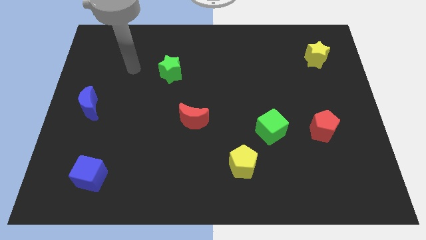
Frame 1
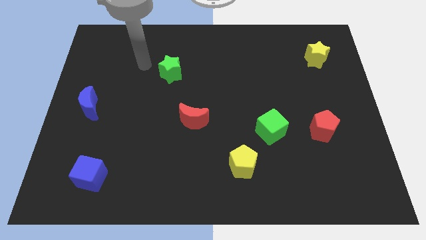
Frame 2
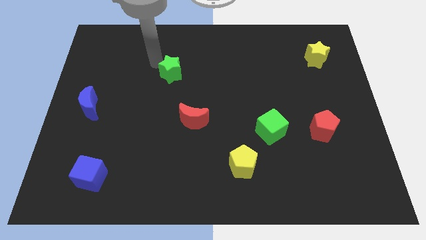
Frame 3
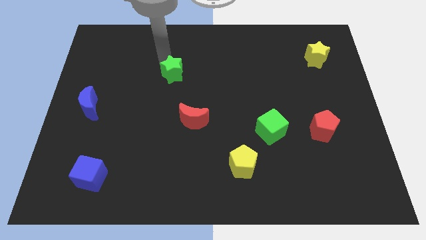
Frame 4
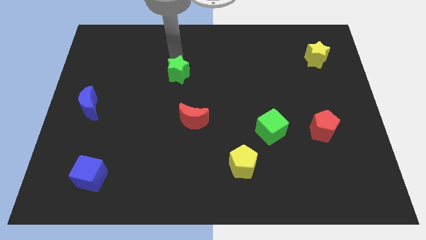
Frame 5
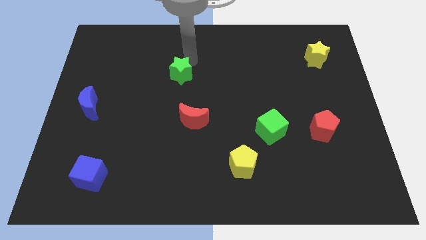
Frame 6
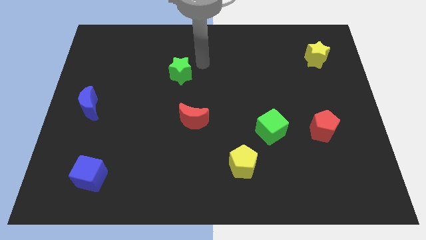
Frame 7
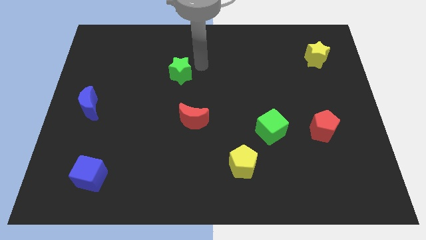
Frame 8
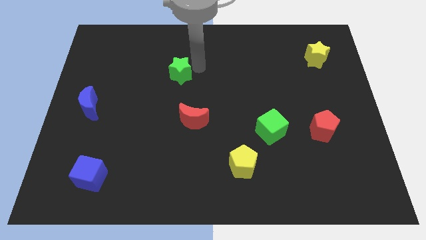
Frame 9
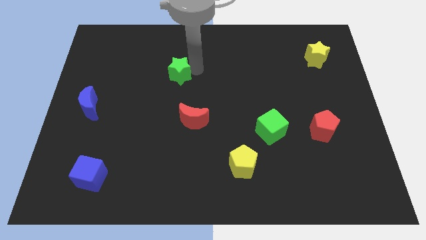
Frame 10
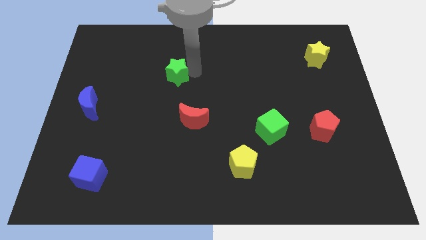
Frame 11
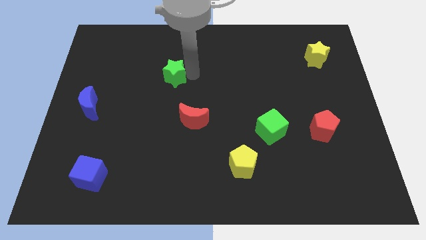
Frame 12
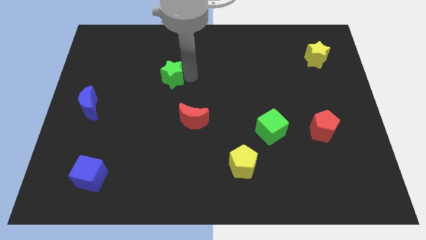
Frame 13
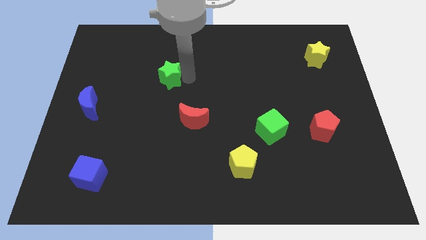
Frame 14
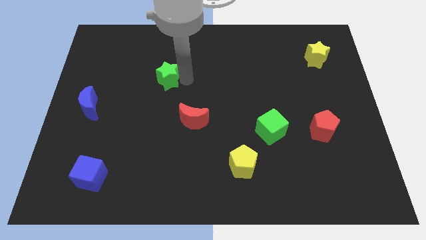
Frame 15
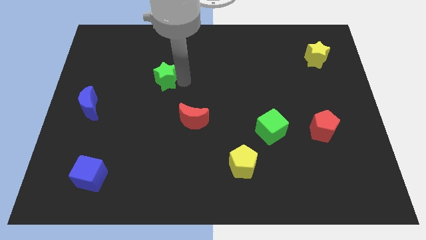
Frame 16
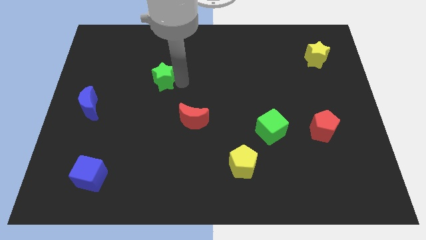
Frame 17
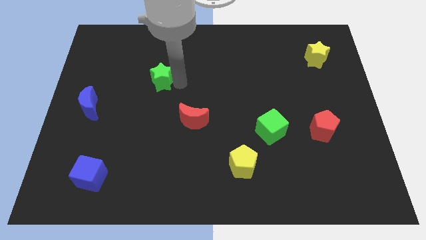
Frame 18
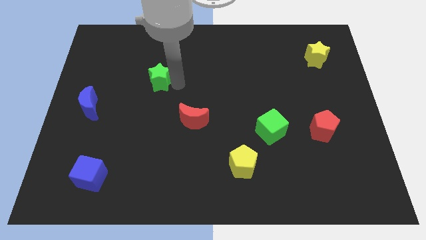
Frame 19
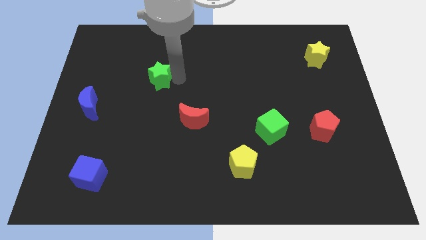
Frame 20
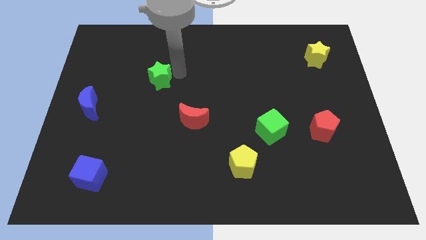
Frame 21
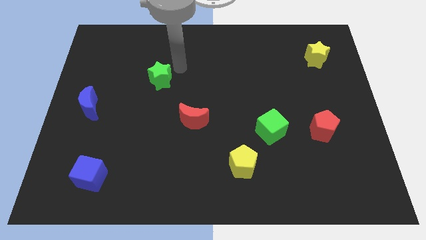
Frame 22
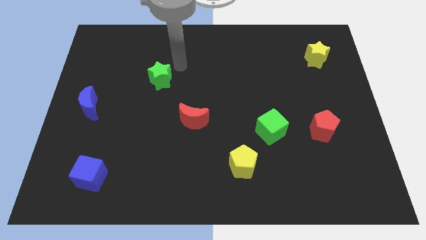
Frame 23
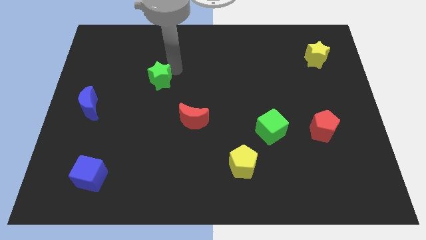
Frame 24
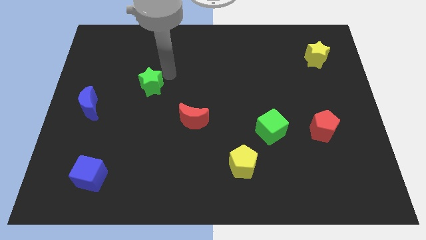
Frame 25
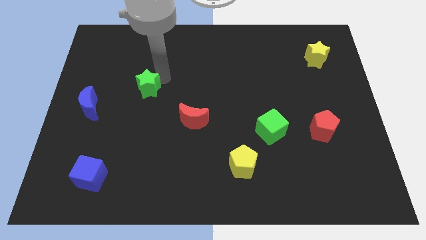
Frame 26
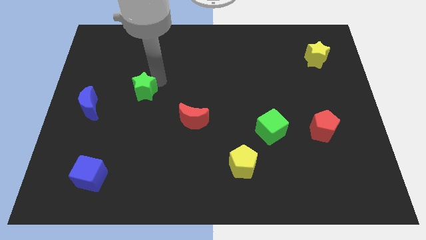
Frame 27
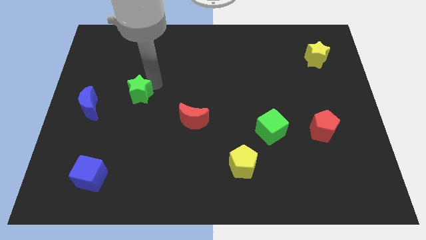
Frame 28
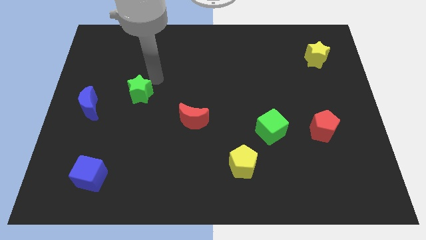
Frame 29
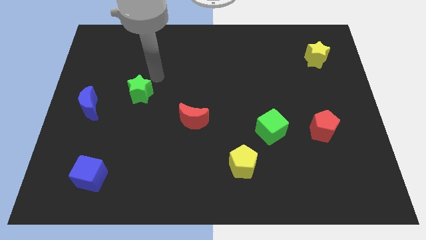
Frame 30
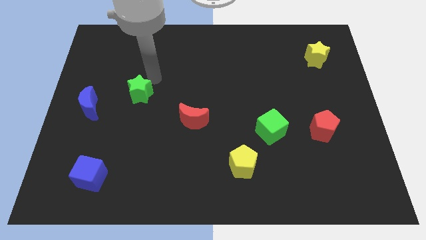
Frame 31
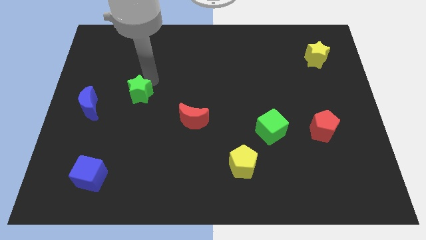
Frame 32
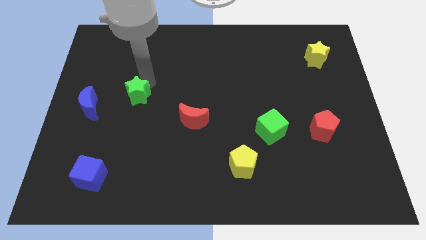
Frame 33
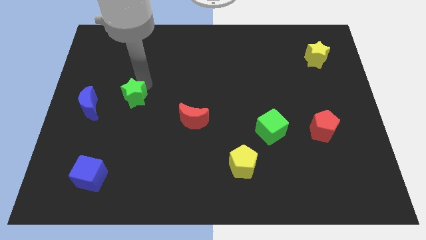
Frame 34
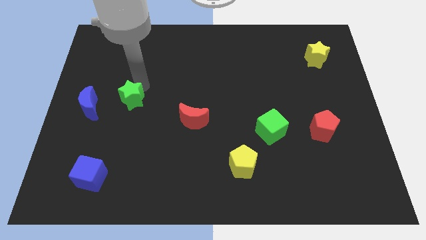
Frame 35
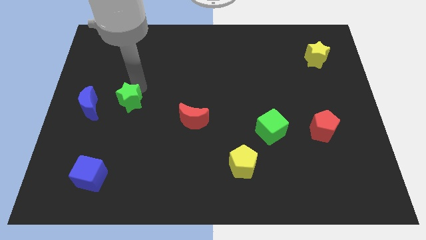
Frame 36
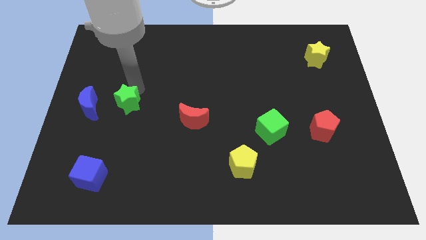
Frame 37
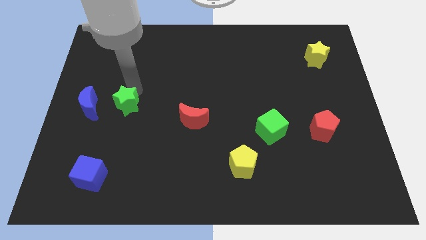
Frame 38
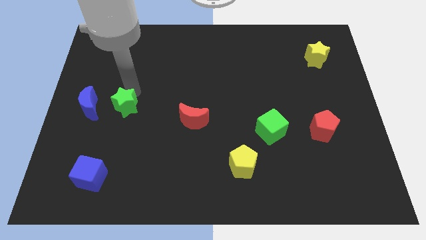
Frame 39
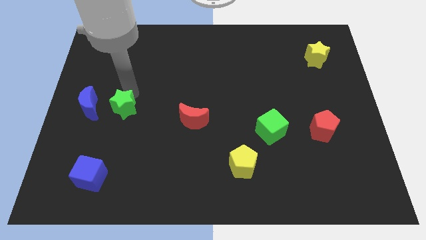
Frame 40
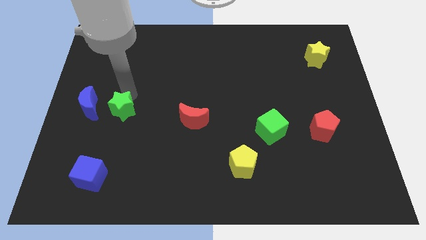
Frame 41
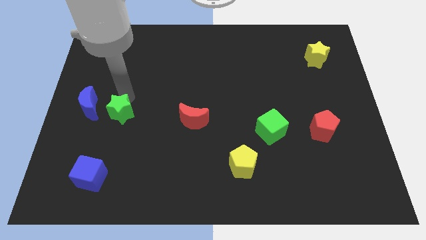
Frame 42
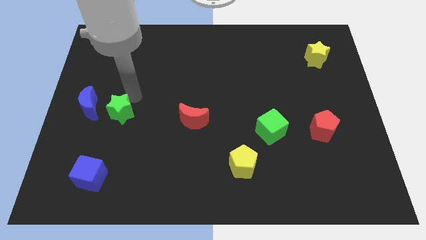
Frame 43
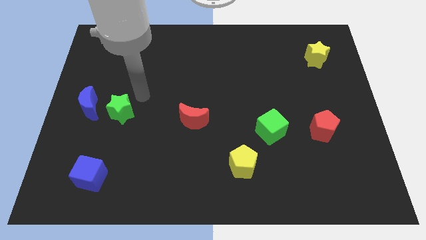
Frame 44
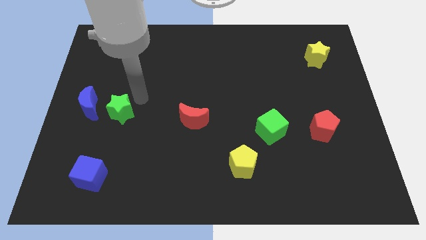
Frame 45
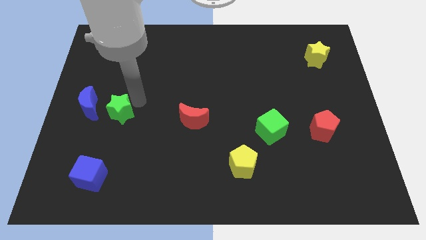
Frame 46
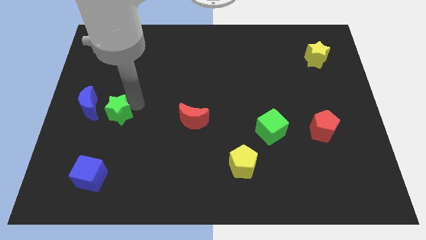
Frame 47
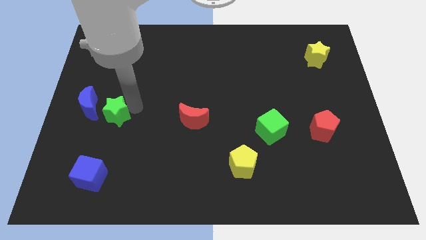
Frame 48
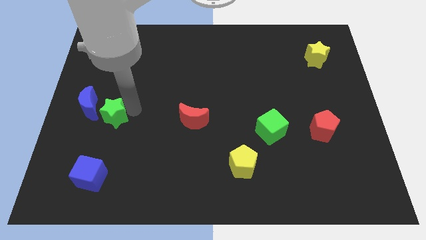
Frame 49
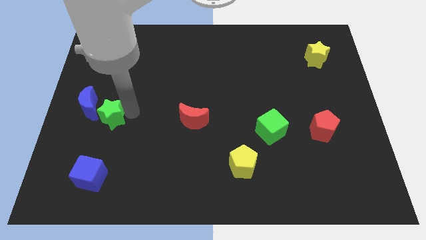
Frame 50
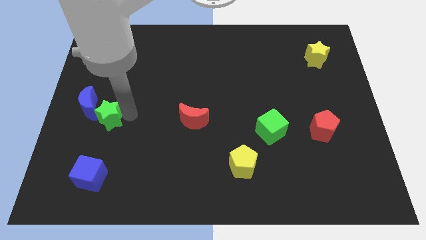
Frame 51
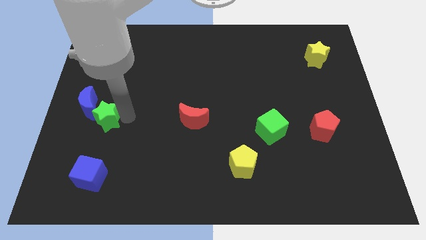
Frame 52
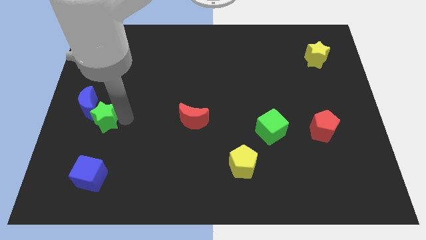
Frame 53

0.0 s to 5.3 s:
push the green star to the bottom side of the blue moon

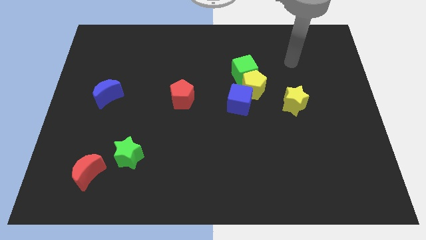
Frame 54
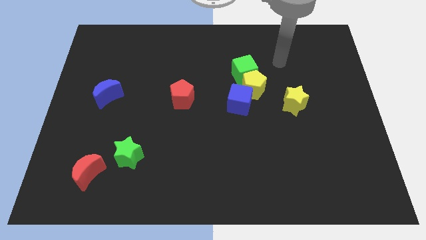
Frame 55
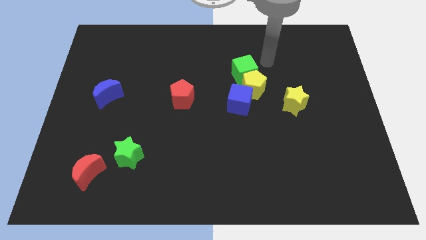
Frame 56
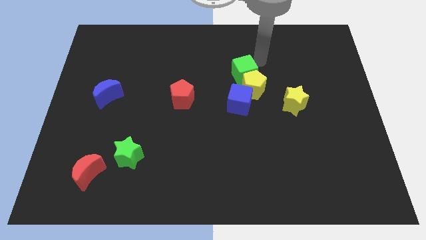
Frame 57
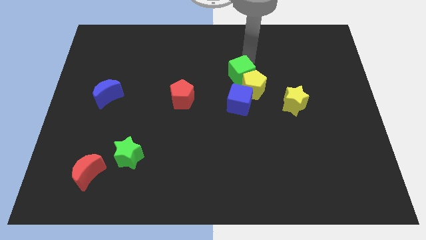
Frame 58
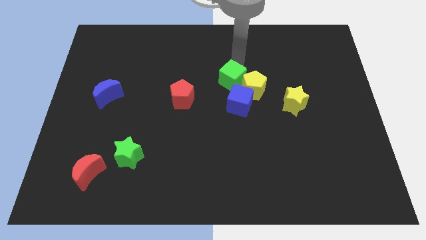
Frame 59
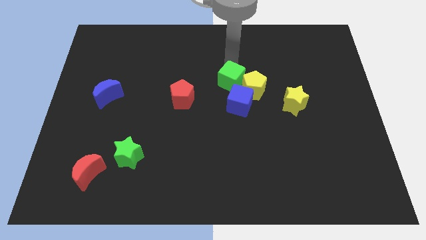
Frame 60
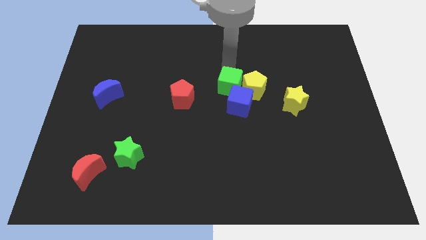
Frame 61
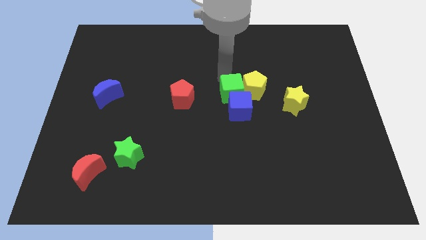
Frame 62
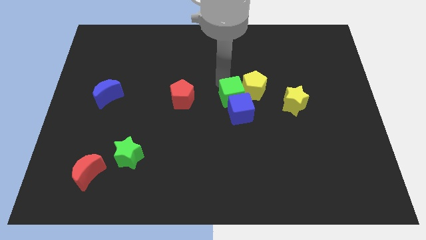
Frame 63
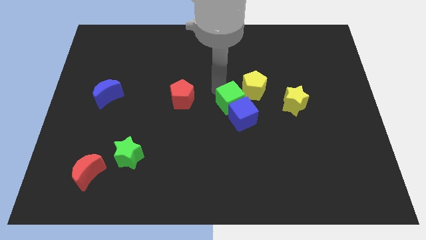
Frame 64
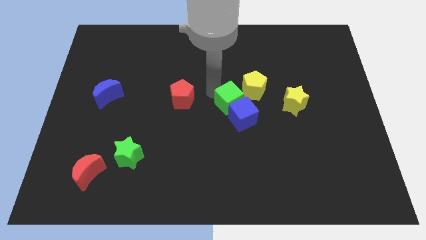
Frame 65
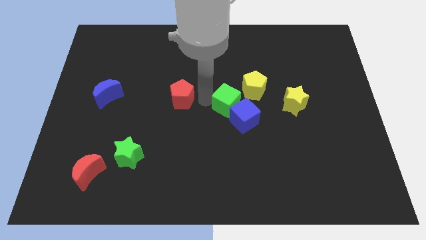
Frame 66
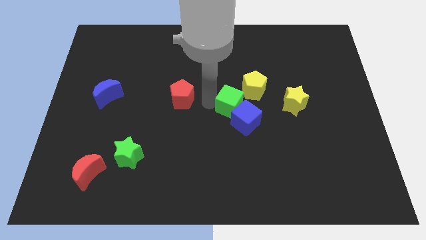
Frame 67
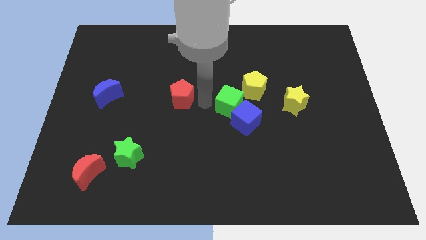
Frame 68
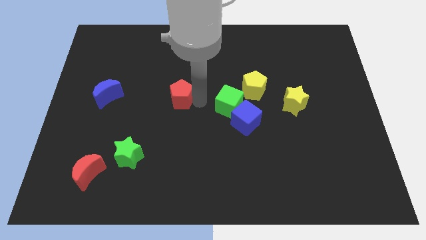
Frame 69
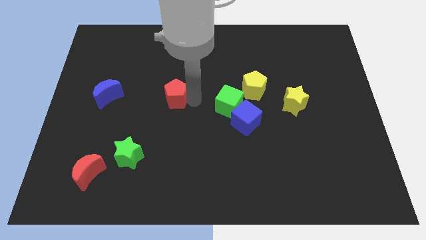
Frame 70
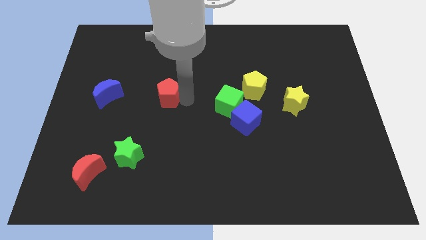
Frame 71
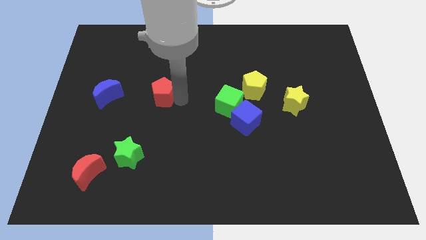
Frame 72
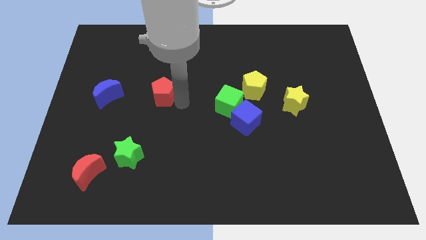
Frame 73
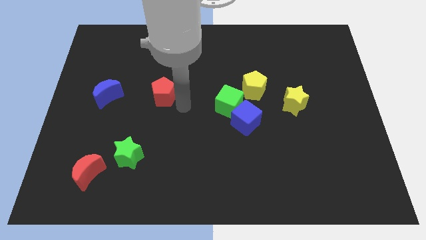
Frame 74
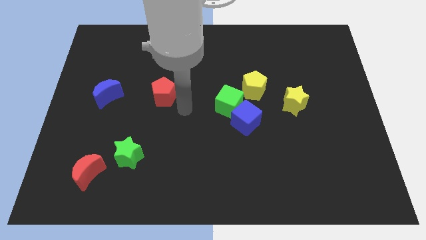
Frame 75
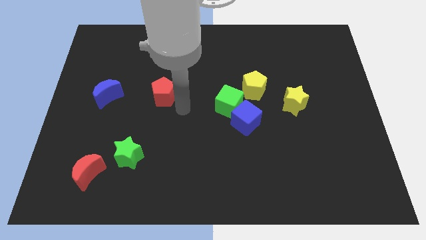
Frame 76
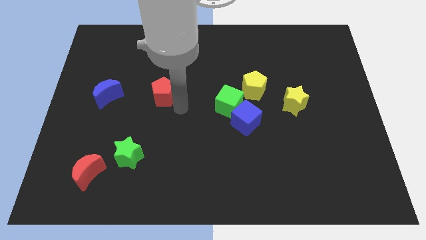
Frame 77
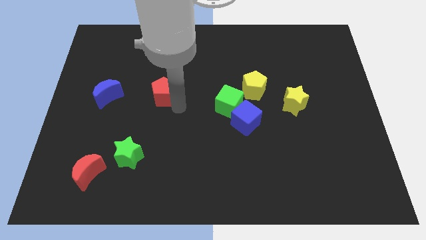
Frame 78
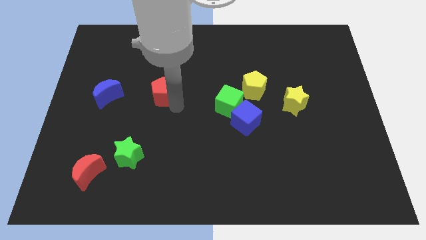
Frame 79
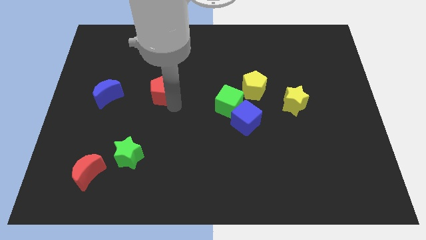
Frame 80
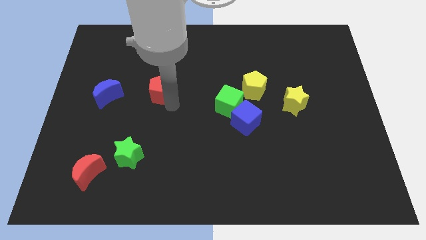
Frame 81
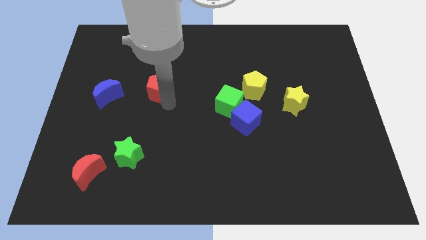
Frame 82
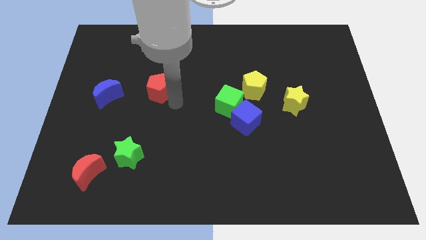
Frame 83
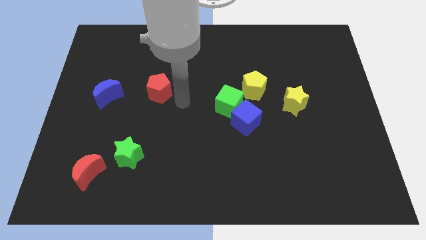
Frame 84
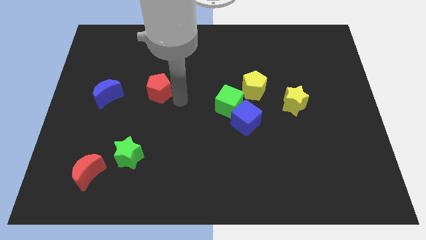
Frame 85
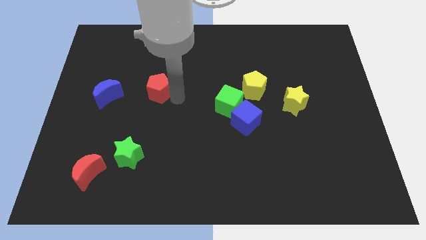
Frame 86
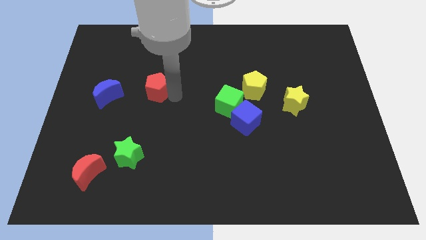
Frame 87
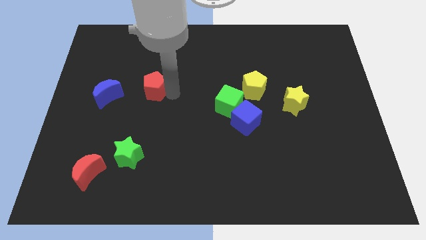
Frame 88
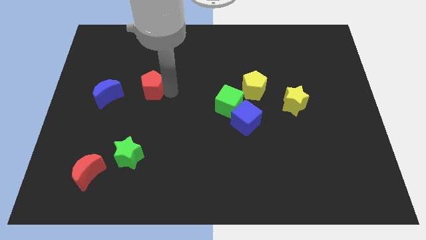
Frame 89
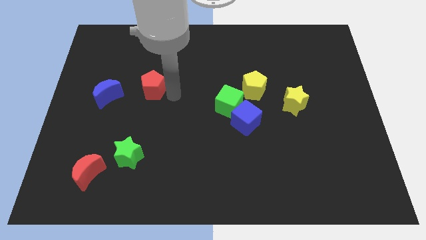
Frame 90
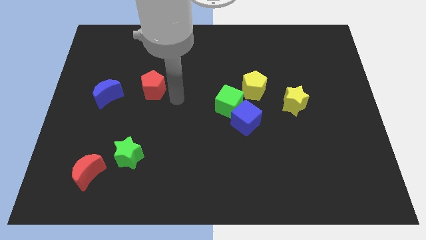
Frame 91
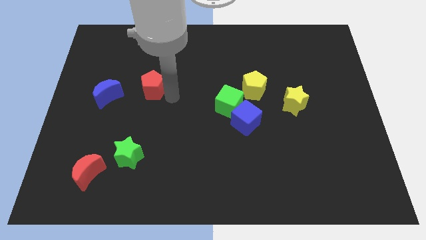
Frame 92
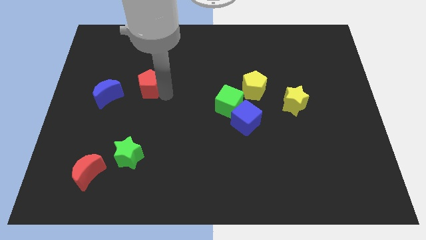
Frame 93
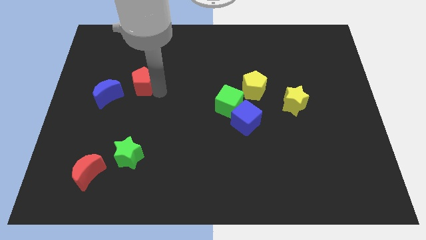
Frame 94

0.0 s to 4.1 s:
put the red pentagon diagonally up and to the right of the blue moon
